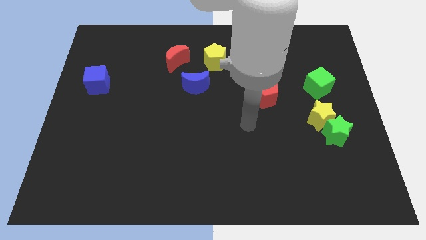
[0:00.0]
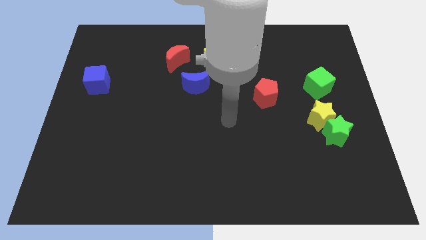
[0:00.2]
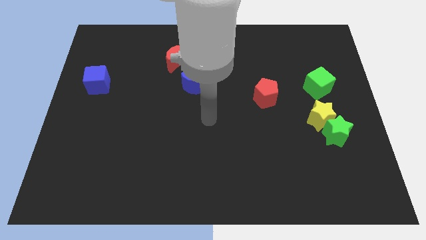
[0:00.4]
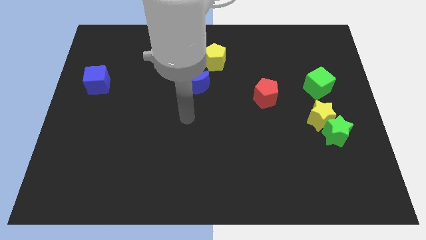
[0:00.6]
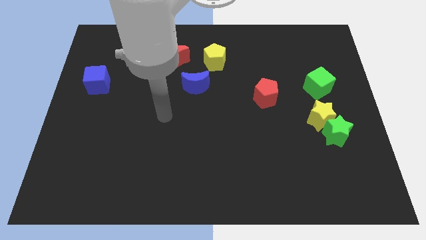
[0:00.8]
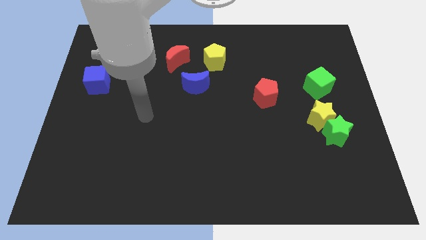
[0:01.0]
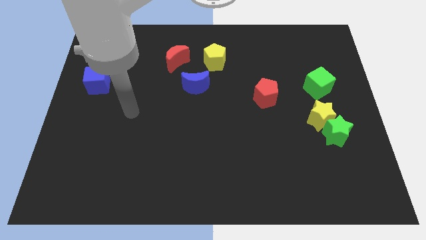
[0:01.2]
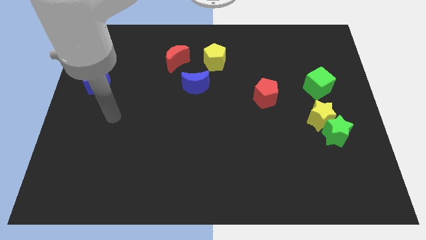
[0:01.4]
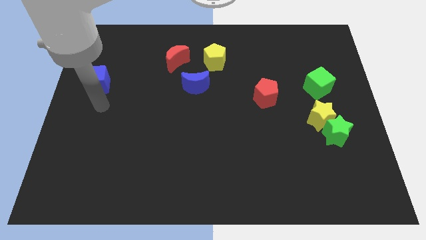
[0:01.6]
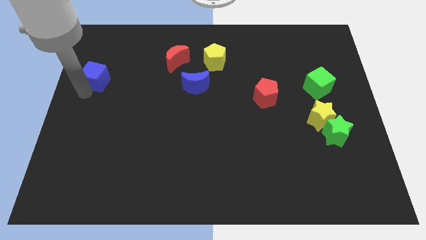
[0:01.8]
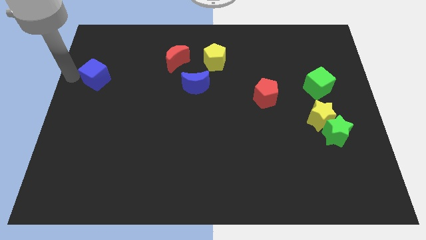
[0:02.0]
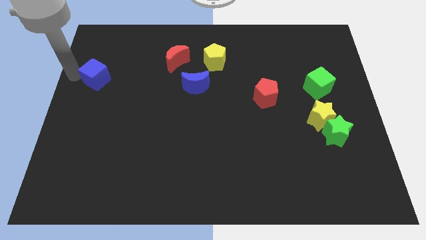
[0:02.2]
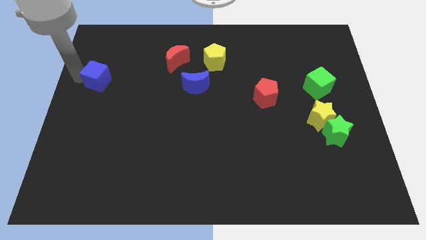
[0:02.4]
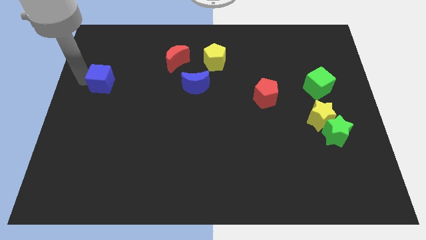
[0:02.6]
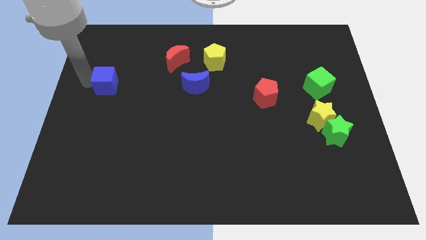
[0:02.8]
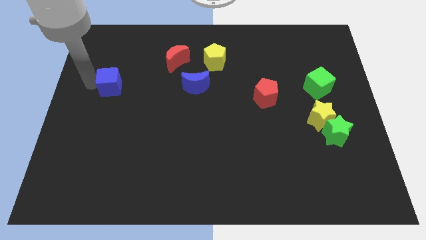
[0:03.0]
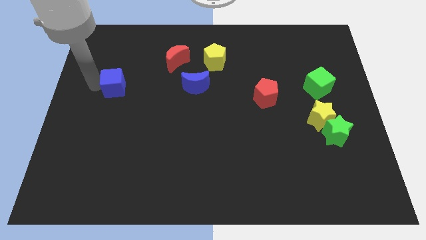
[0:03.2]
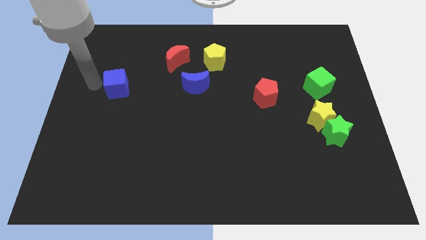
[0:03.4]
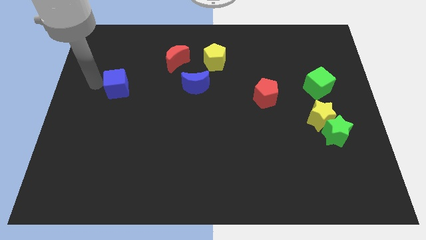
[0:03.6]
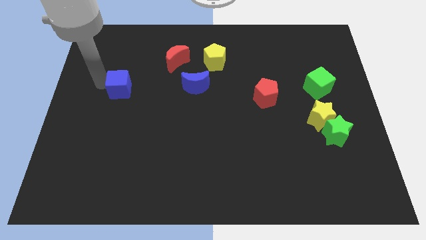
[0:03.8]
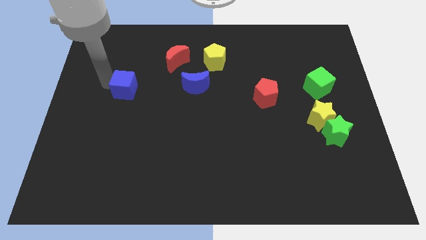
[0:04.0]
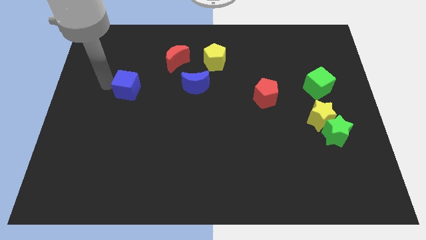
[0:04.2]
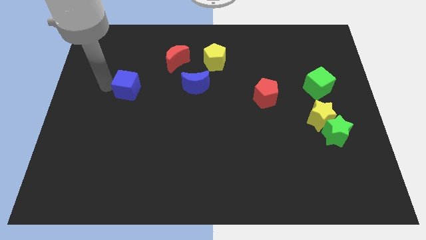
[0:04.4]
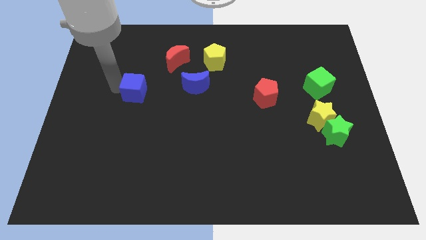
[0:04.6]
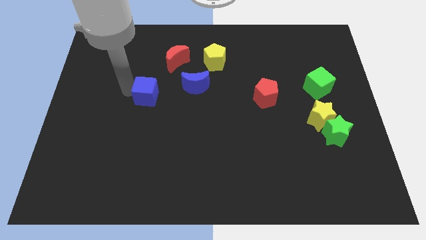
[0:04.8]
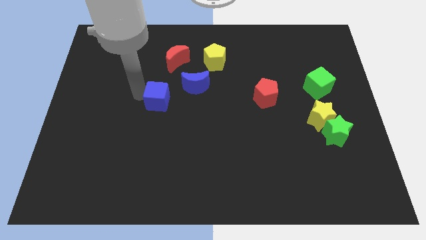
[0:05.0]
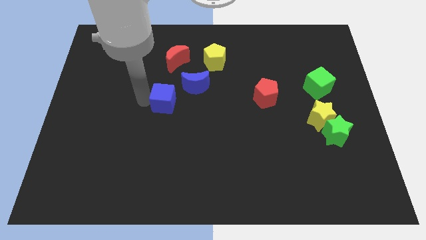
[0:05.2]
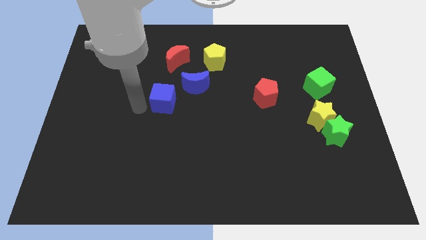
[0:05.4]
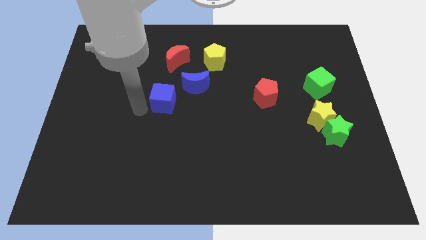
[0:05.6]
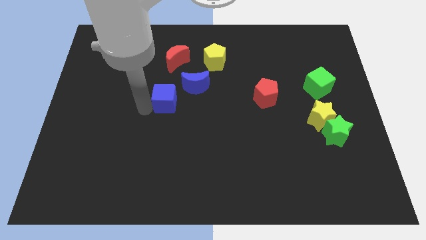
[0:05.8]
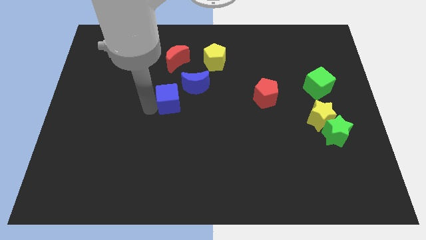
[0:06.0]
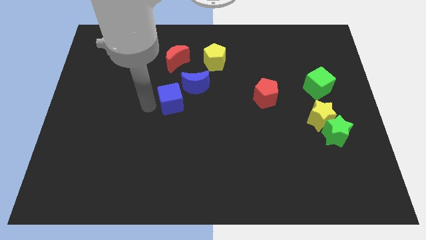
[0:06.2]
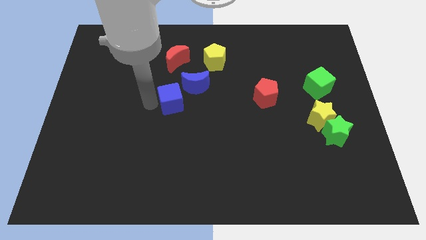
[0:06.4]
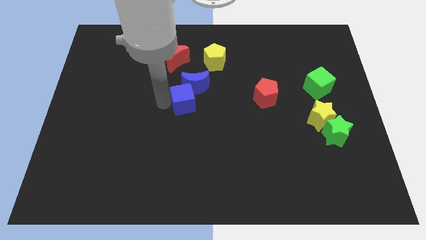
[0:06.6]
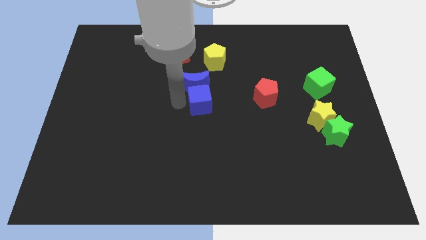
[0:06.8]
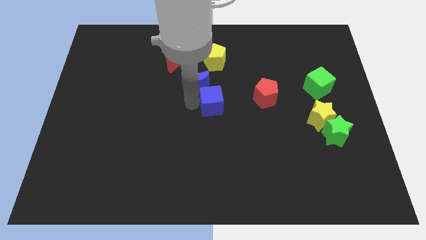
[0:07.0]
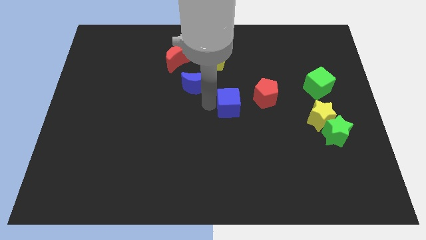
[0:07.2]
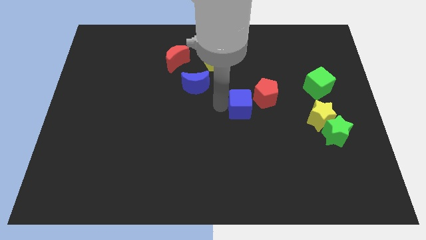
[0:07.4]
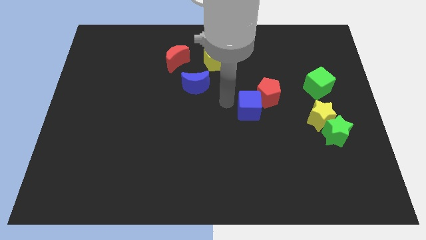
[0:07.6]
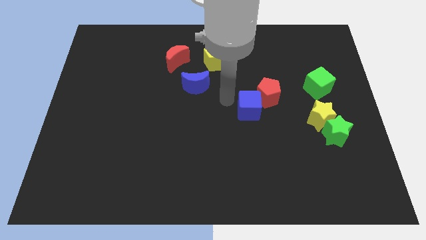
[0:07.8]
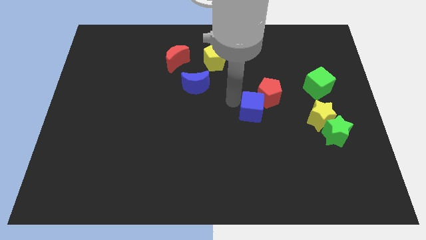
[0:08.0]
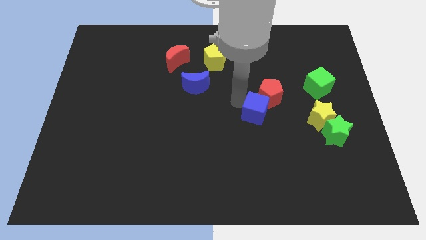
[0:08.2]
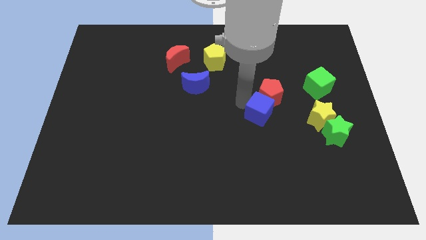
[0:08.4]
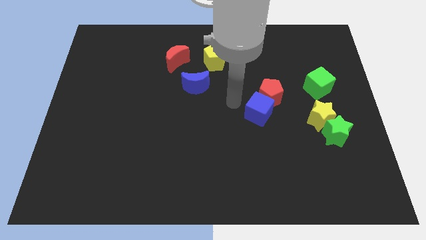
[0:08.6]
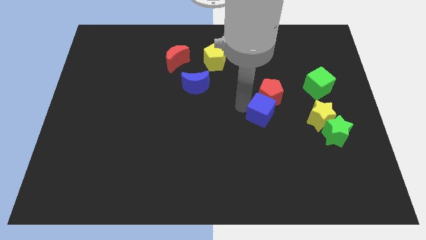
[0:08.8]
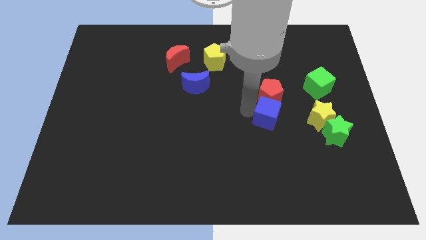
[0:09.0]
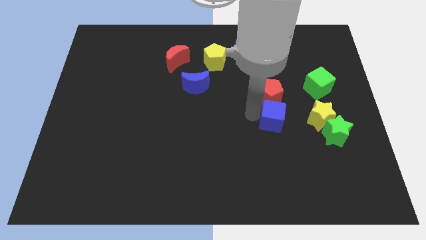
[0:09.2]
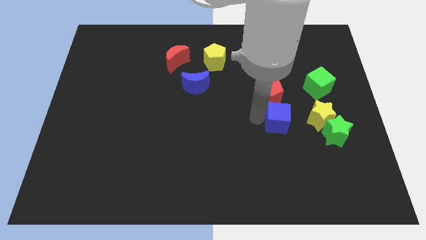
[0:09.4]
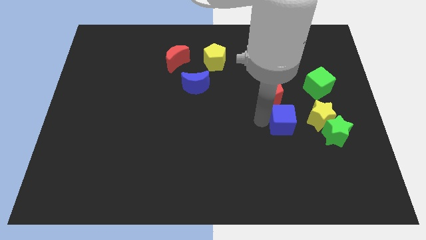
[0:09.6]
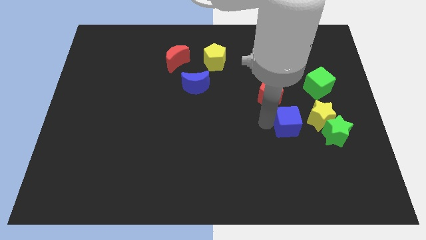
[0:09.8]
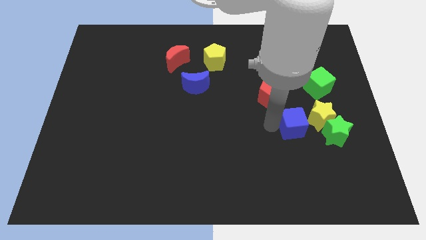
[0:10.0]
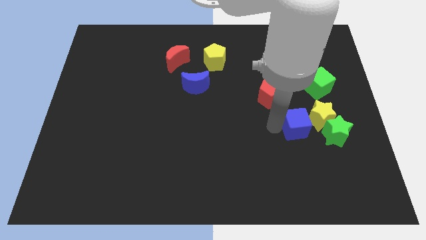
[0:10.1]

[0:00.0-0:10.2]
put the blue cube towards the yellow star

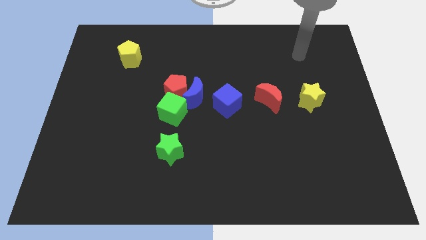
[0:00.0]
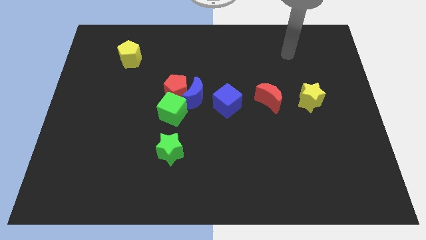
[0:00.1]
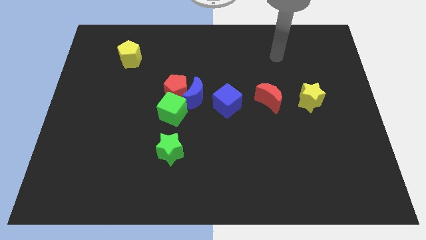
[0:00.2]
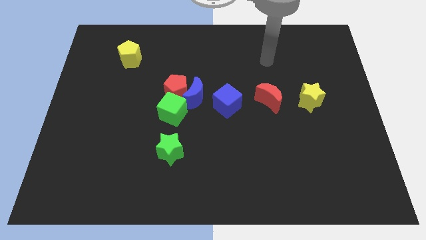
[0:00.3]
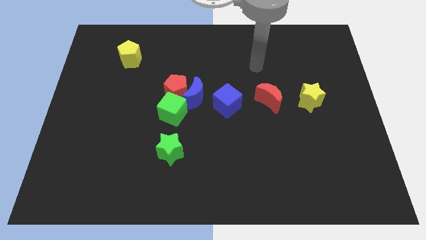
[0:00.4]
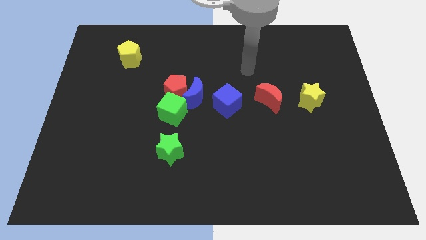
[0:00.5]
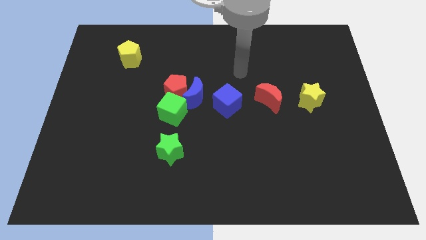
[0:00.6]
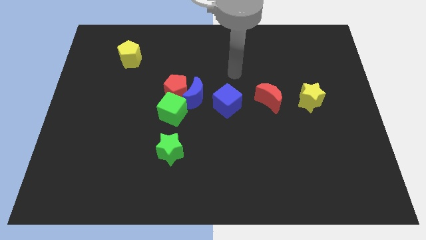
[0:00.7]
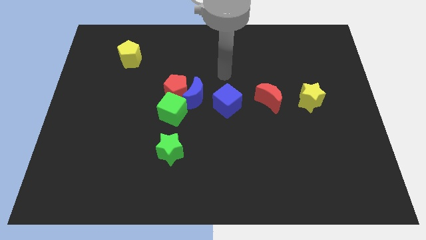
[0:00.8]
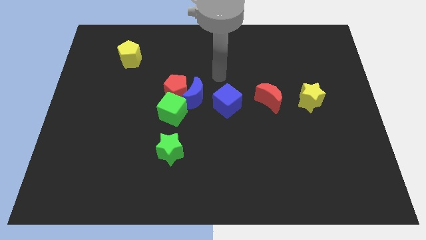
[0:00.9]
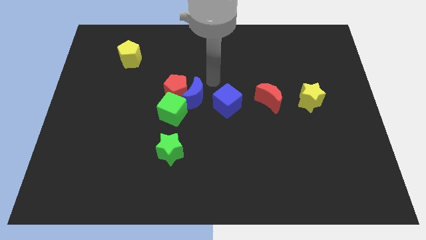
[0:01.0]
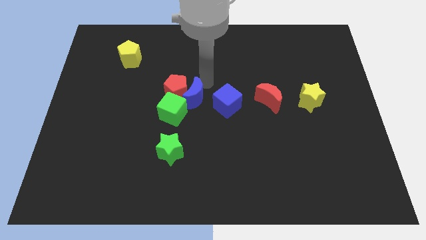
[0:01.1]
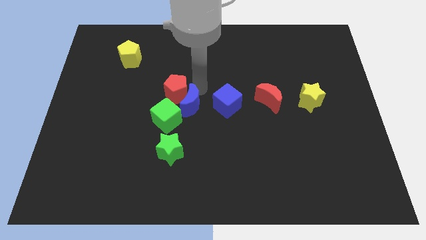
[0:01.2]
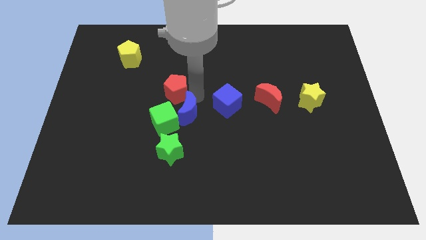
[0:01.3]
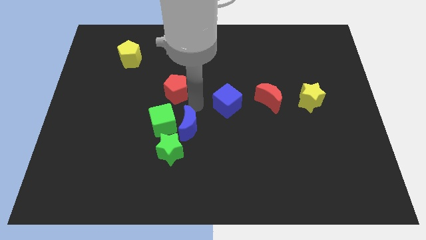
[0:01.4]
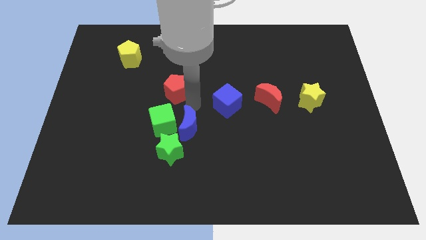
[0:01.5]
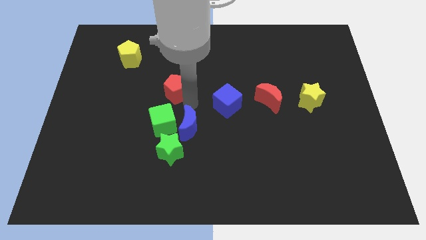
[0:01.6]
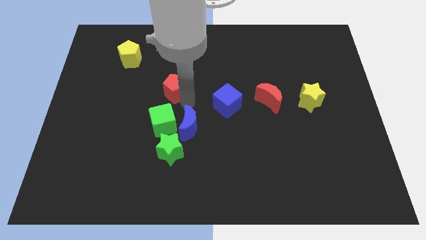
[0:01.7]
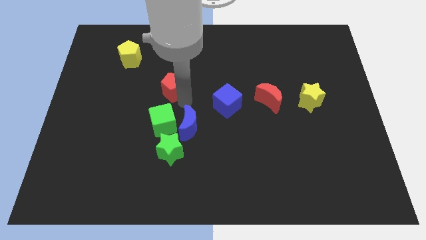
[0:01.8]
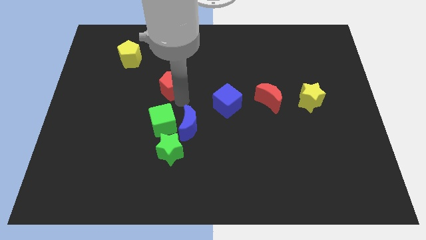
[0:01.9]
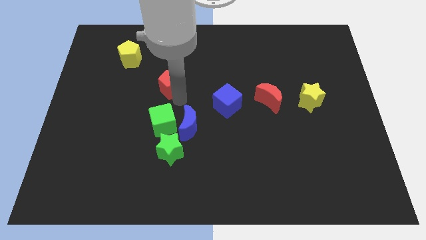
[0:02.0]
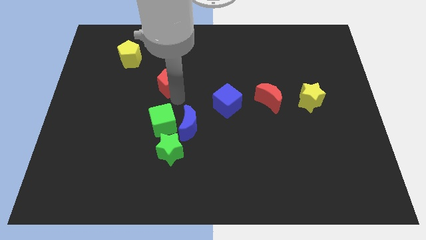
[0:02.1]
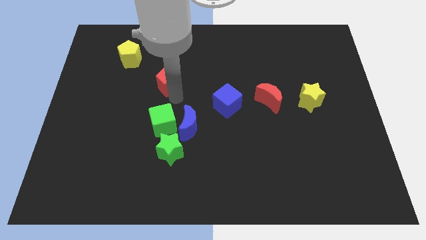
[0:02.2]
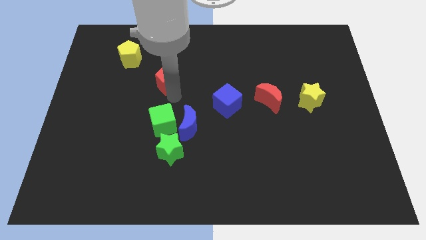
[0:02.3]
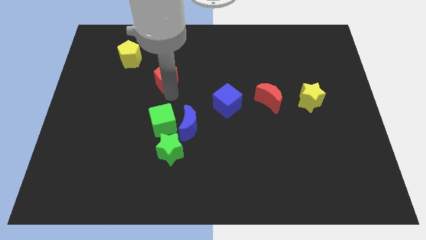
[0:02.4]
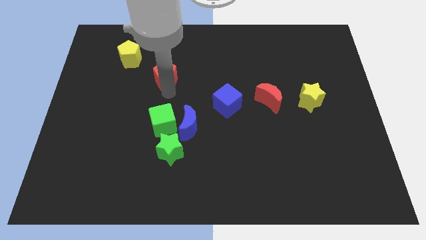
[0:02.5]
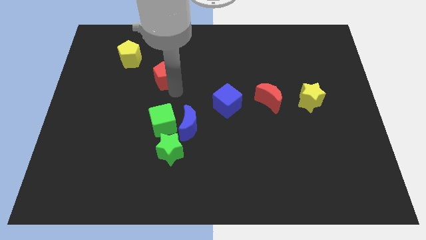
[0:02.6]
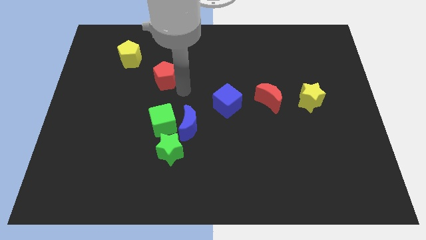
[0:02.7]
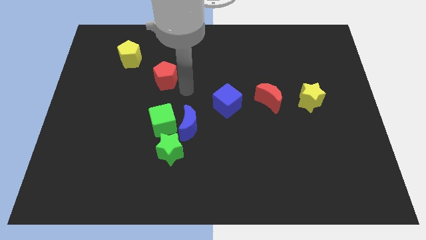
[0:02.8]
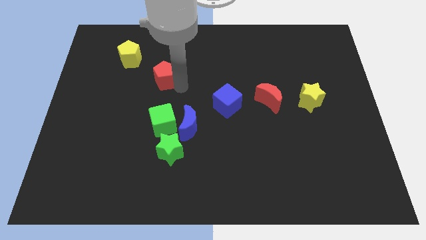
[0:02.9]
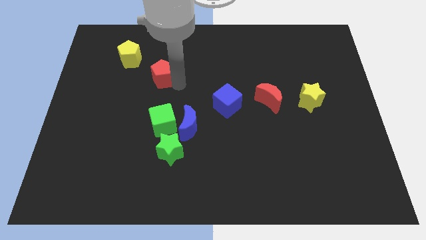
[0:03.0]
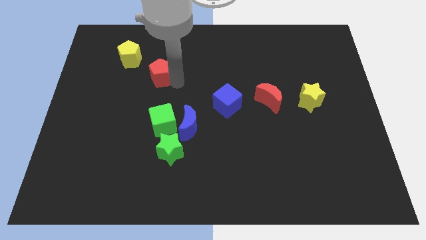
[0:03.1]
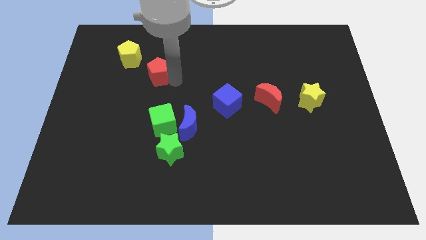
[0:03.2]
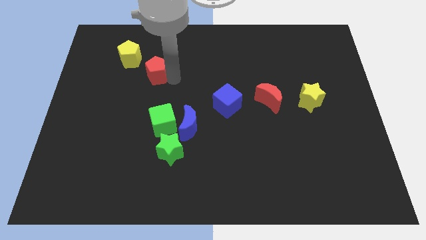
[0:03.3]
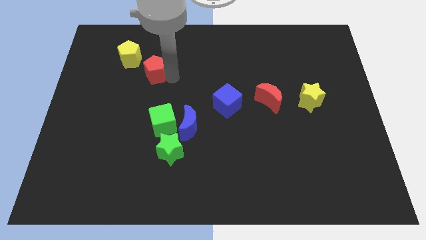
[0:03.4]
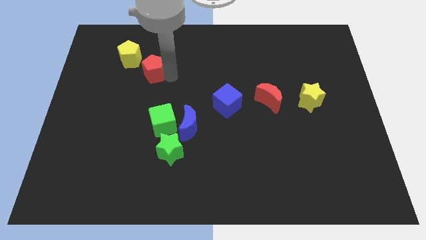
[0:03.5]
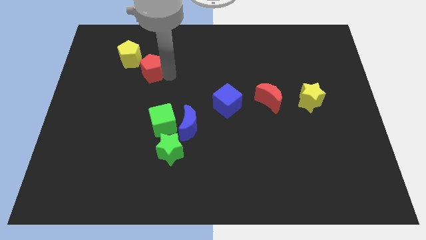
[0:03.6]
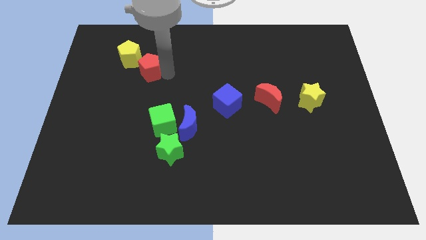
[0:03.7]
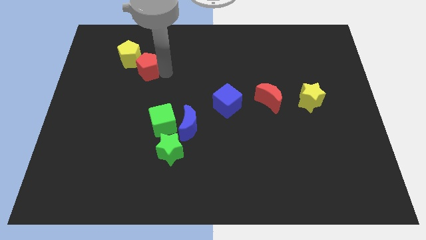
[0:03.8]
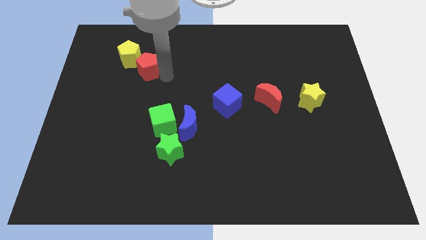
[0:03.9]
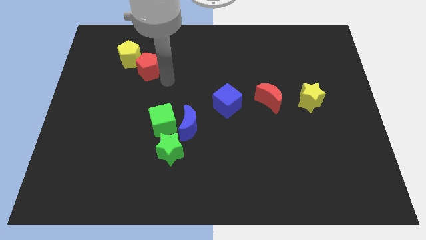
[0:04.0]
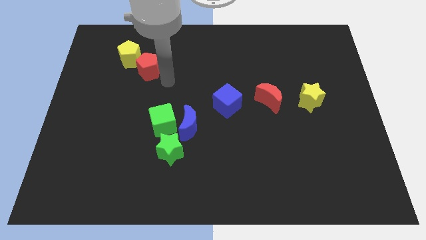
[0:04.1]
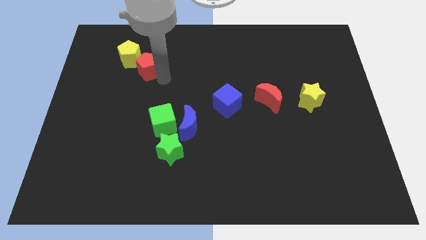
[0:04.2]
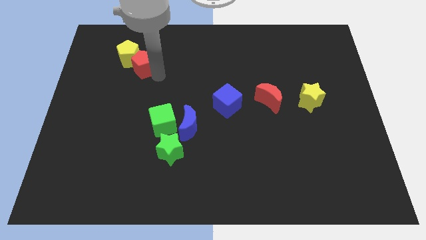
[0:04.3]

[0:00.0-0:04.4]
push the red pentagon towards the yellow pentagon
